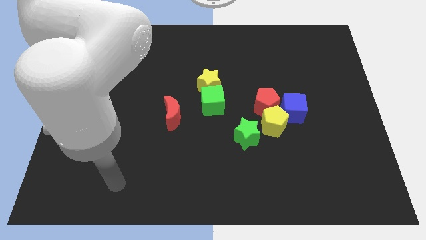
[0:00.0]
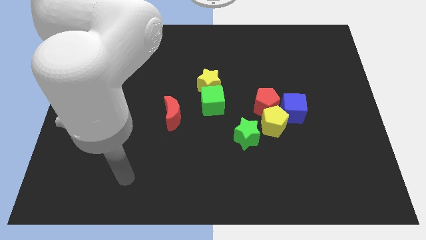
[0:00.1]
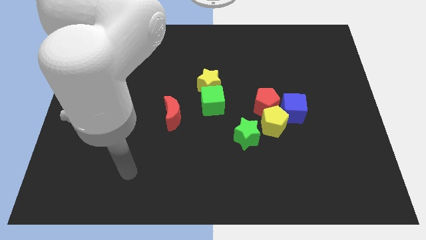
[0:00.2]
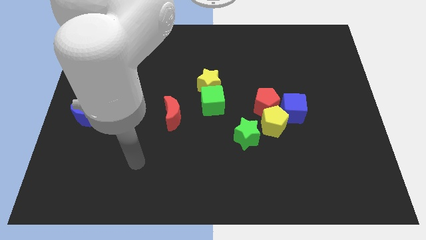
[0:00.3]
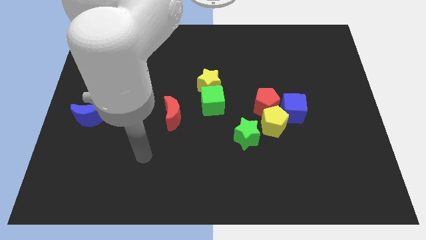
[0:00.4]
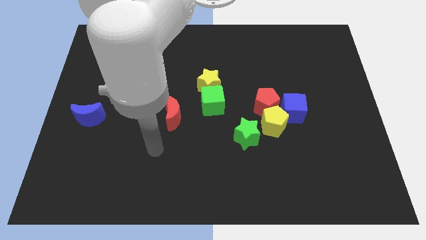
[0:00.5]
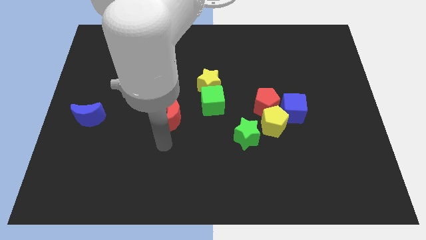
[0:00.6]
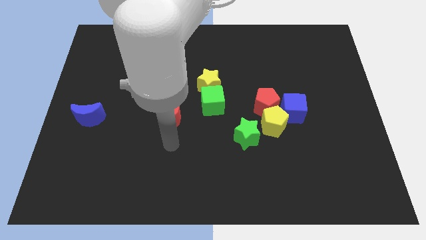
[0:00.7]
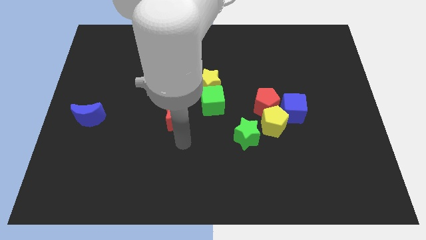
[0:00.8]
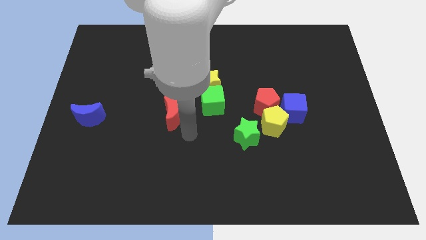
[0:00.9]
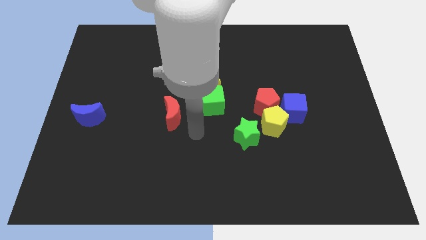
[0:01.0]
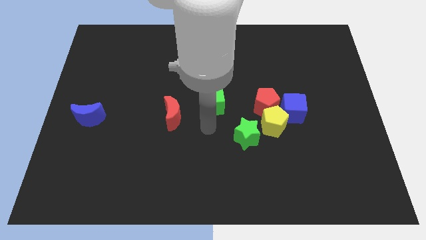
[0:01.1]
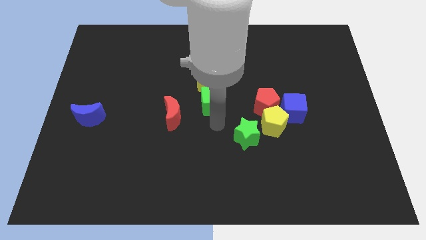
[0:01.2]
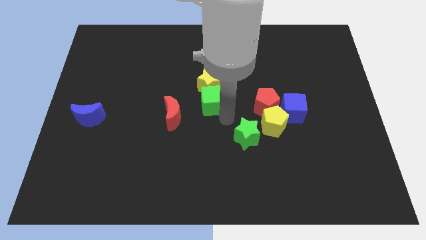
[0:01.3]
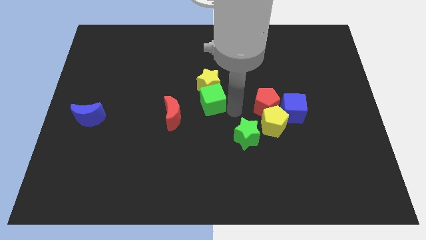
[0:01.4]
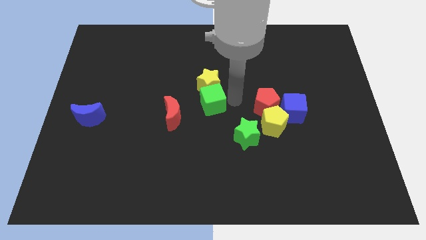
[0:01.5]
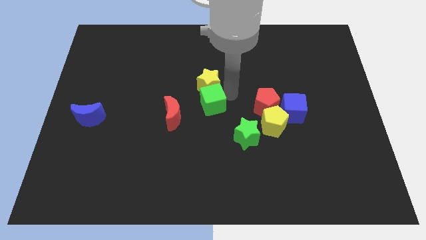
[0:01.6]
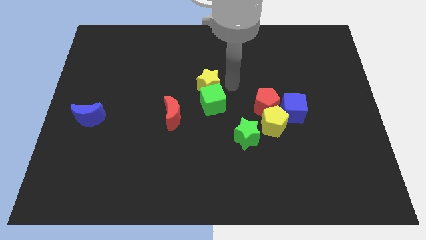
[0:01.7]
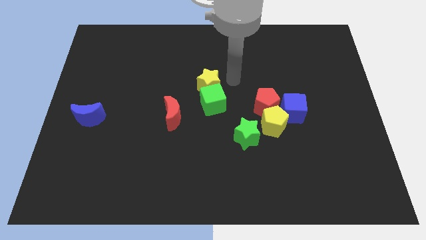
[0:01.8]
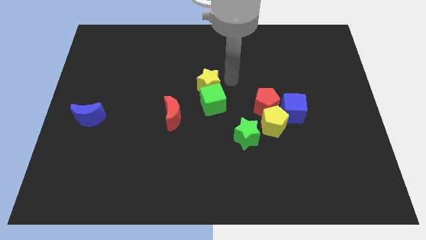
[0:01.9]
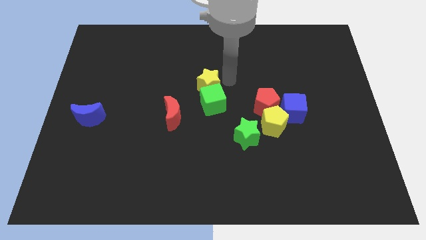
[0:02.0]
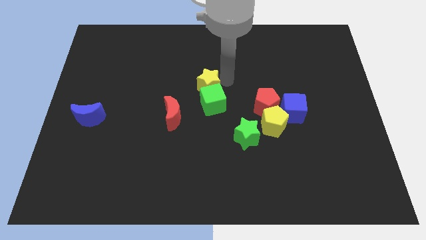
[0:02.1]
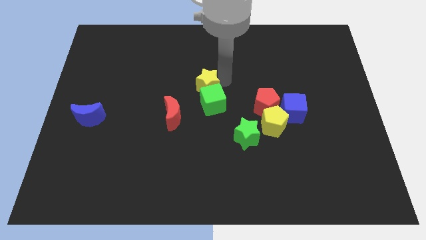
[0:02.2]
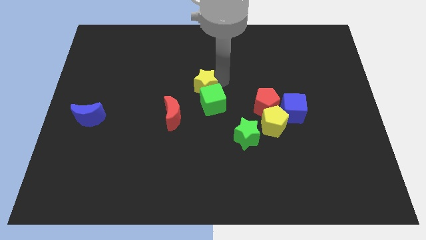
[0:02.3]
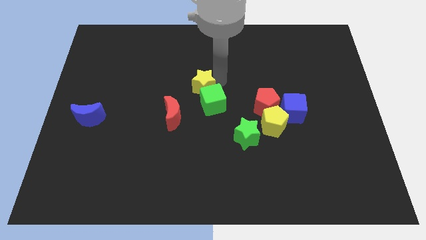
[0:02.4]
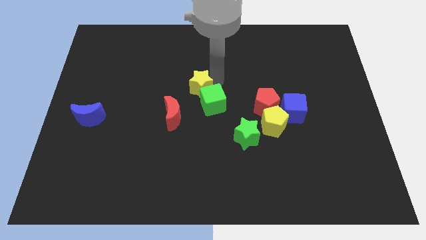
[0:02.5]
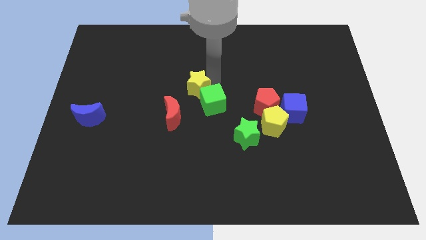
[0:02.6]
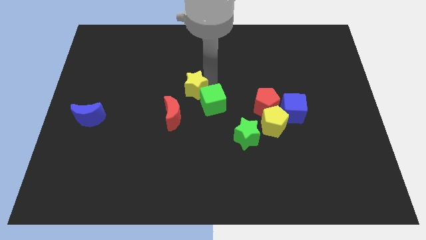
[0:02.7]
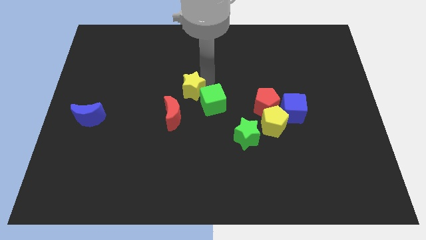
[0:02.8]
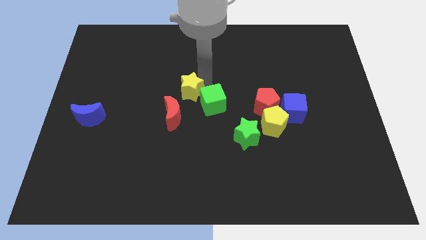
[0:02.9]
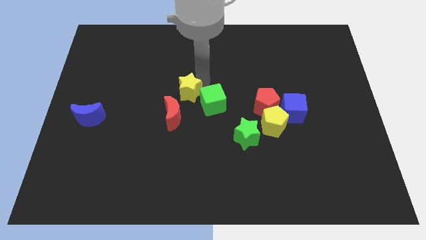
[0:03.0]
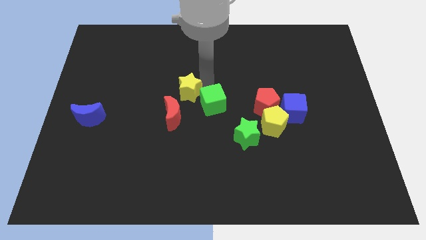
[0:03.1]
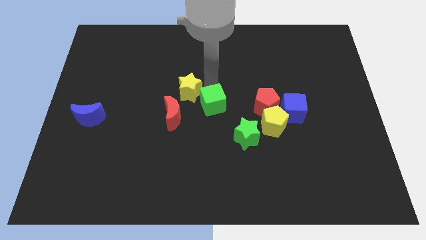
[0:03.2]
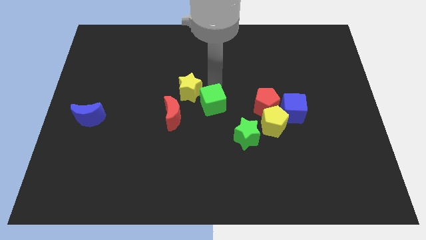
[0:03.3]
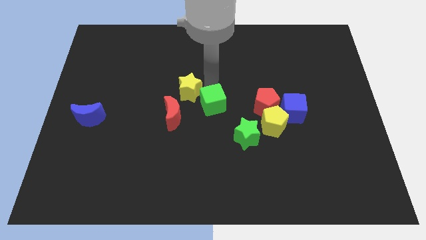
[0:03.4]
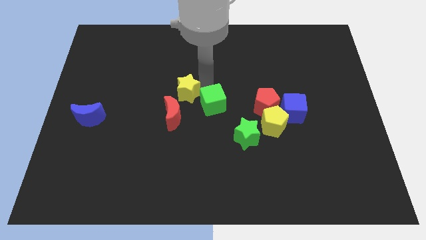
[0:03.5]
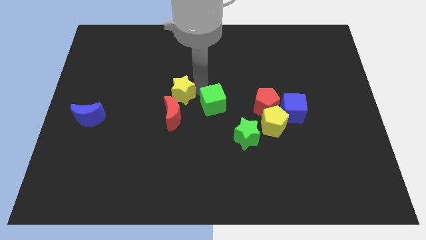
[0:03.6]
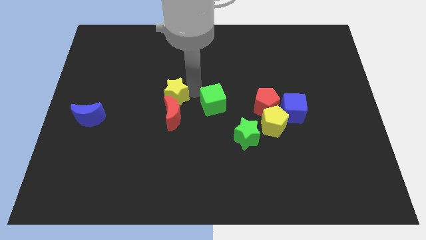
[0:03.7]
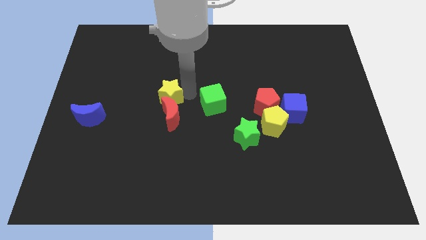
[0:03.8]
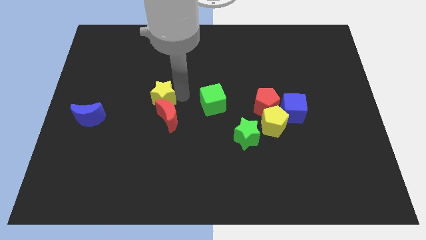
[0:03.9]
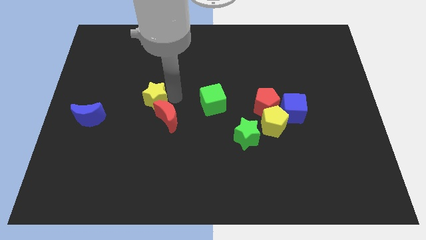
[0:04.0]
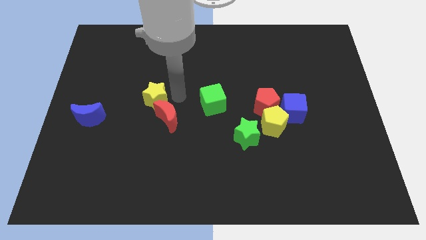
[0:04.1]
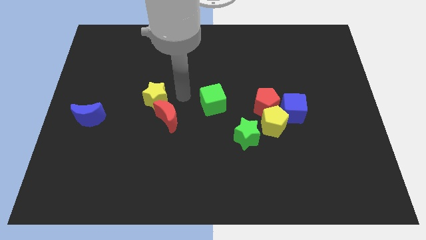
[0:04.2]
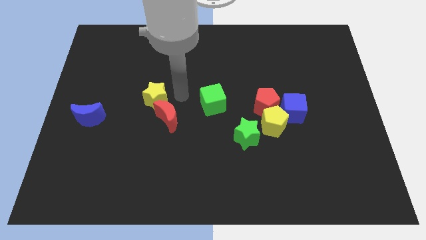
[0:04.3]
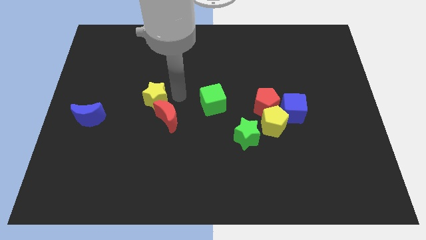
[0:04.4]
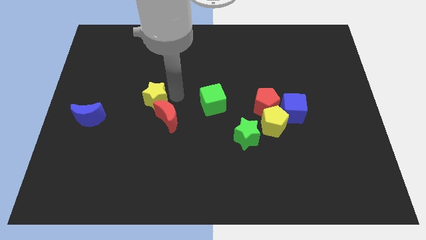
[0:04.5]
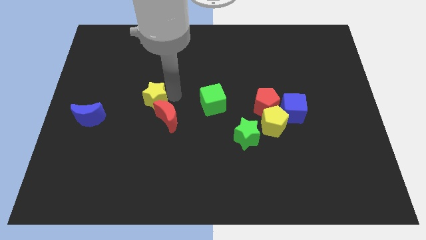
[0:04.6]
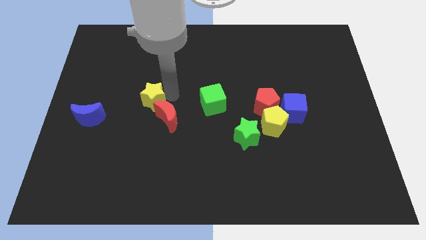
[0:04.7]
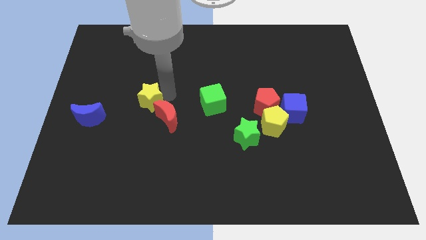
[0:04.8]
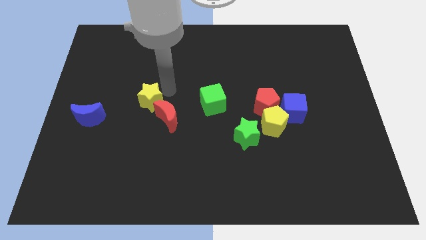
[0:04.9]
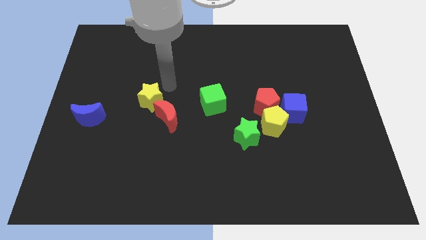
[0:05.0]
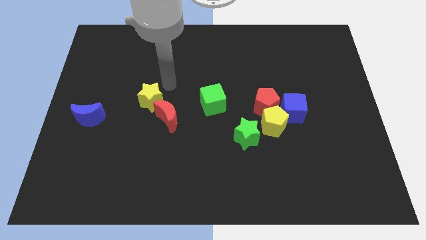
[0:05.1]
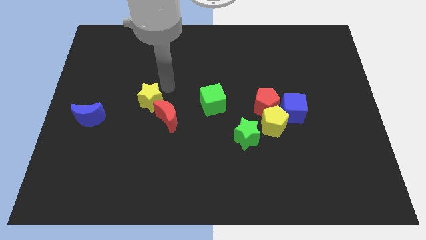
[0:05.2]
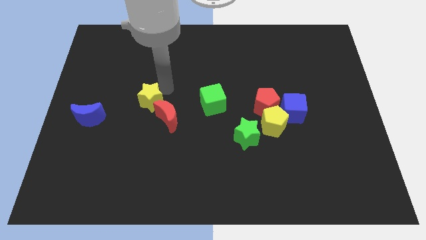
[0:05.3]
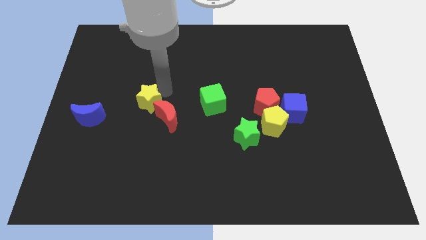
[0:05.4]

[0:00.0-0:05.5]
push the yellow star right of the blue moon
